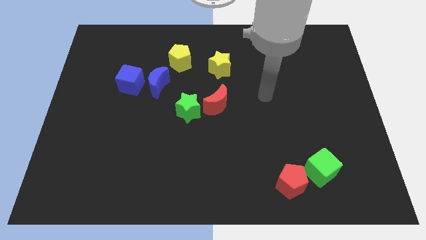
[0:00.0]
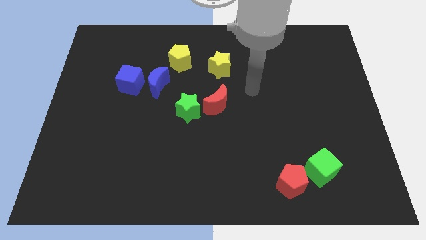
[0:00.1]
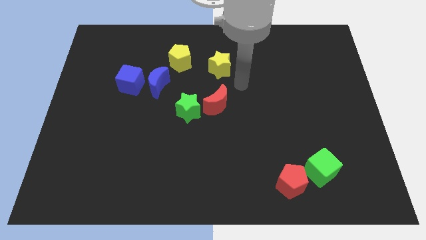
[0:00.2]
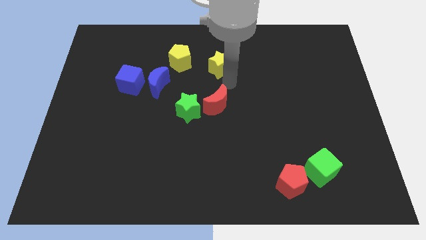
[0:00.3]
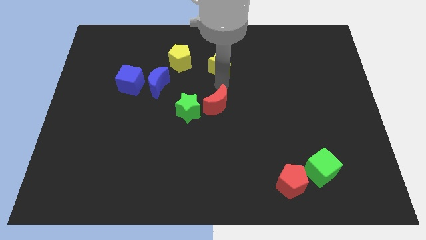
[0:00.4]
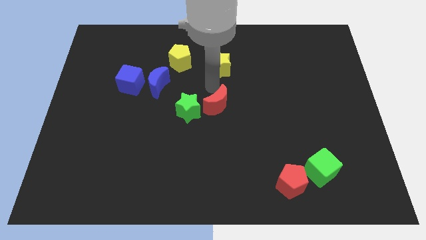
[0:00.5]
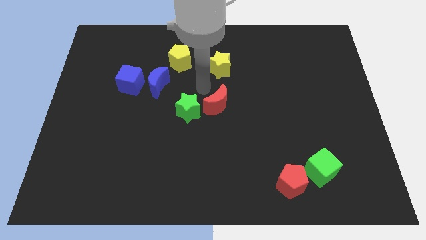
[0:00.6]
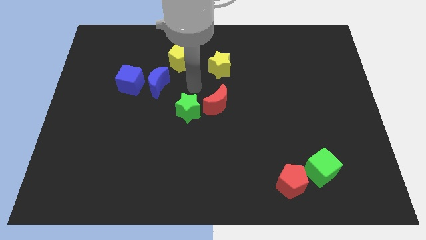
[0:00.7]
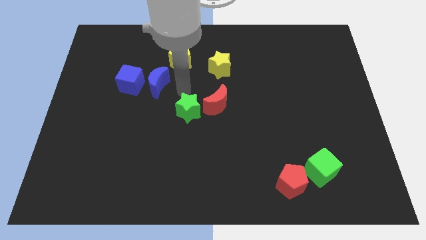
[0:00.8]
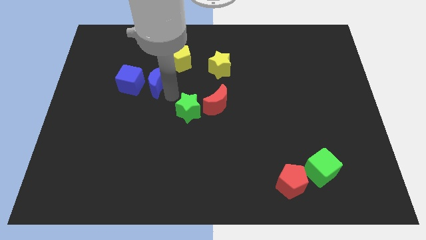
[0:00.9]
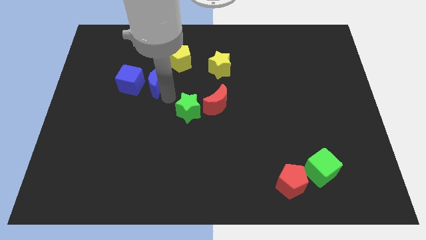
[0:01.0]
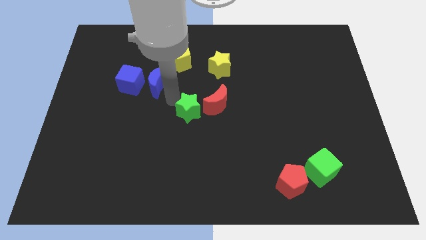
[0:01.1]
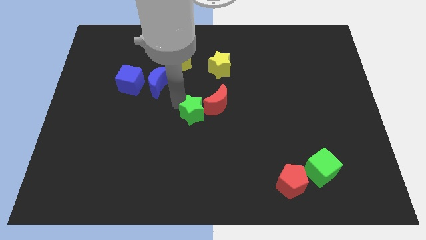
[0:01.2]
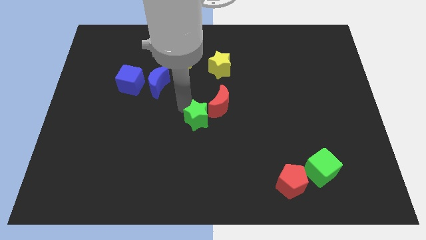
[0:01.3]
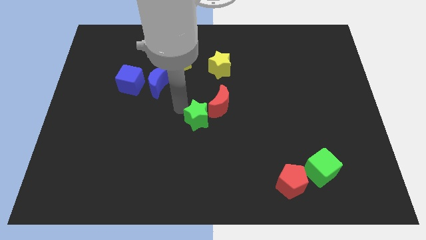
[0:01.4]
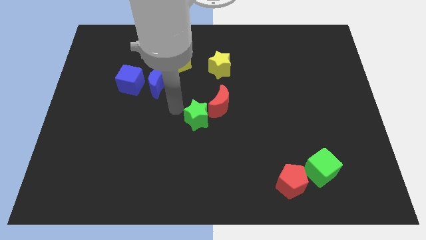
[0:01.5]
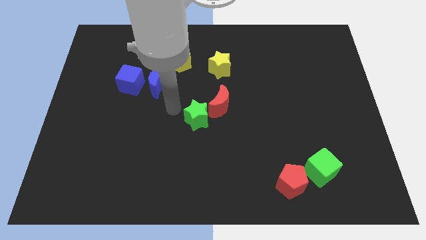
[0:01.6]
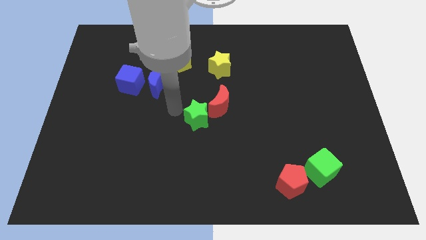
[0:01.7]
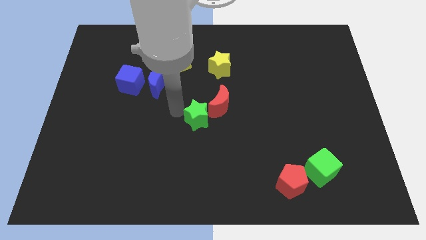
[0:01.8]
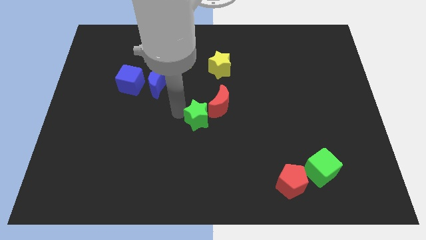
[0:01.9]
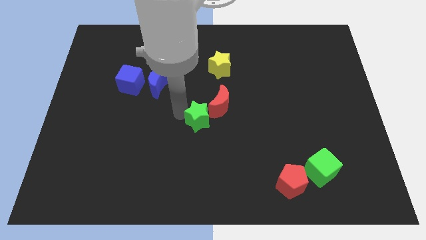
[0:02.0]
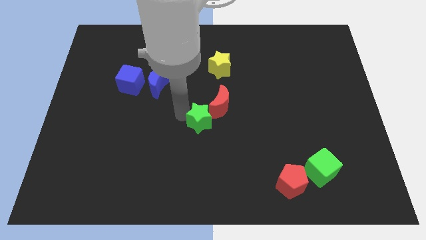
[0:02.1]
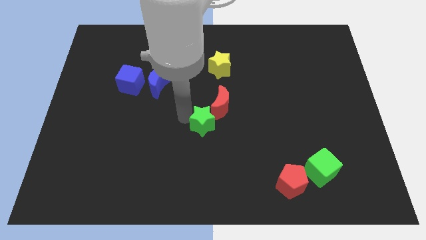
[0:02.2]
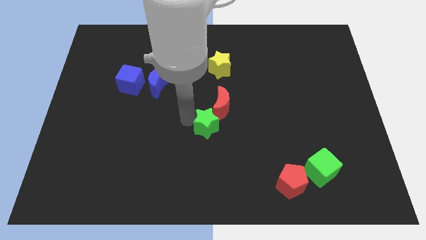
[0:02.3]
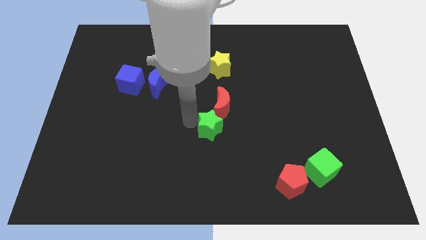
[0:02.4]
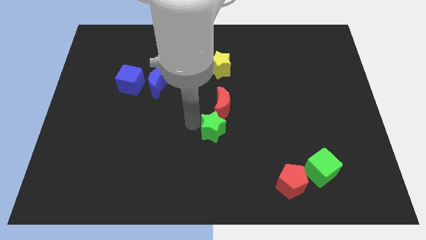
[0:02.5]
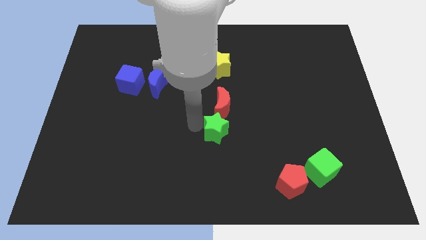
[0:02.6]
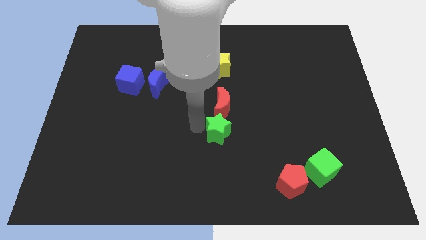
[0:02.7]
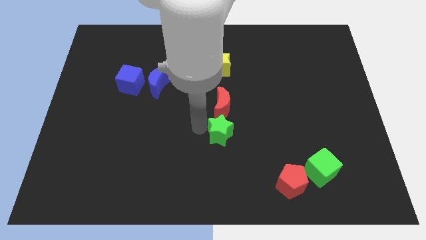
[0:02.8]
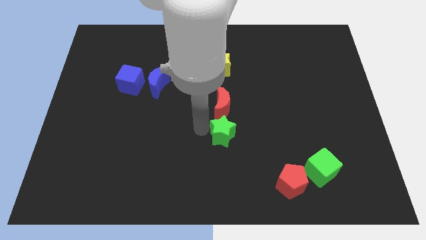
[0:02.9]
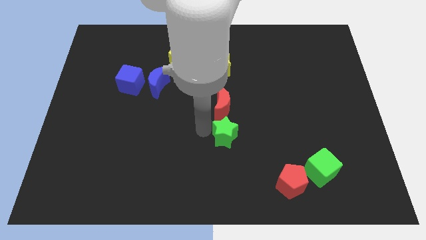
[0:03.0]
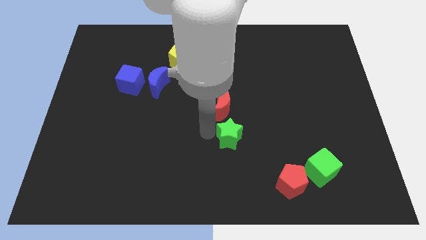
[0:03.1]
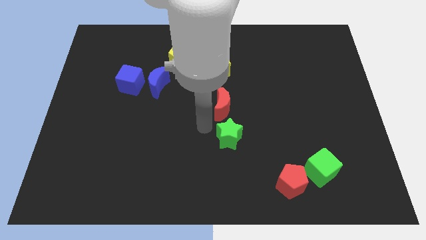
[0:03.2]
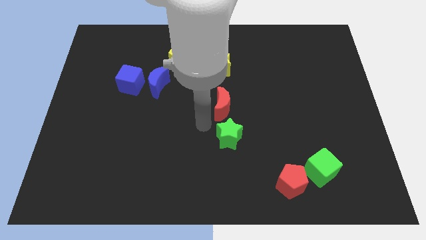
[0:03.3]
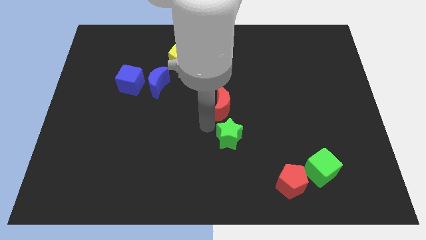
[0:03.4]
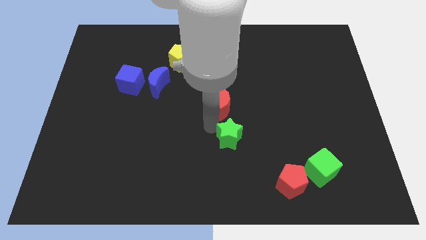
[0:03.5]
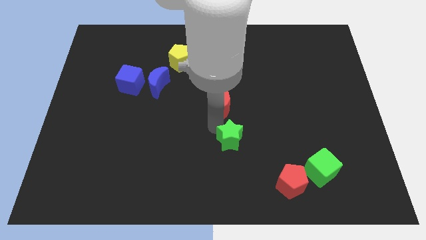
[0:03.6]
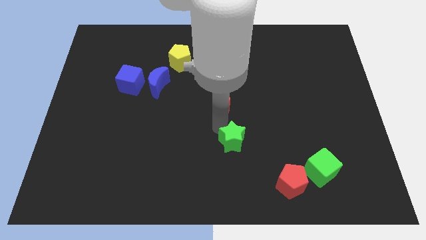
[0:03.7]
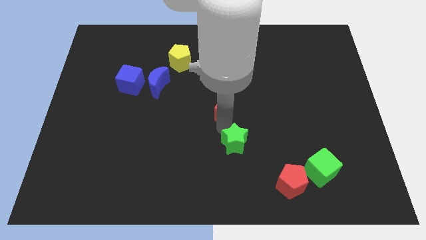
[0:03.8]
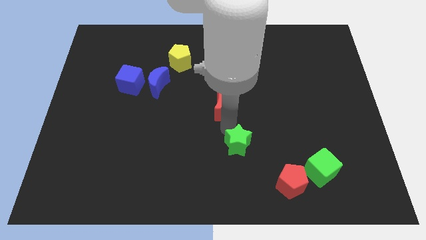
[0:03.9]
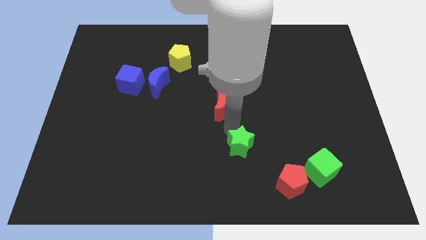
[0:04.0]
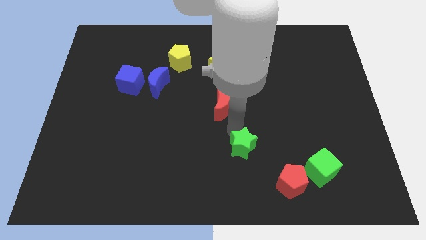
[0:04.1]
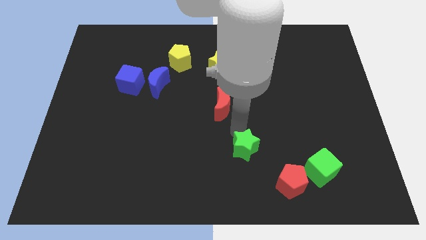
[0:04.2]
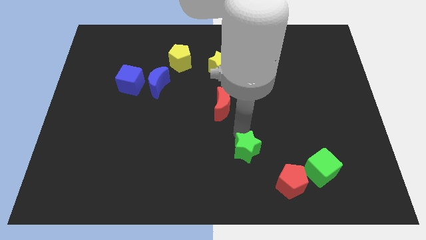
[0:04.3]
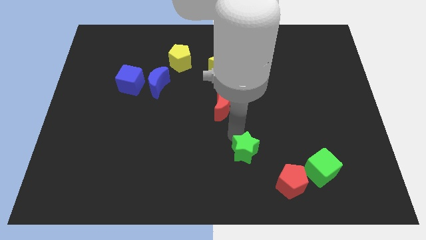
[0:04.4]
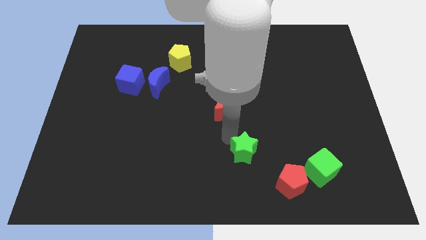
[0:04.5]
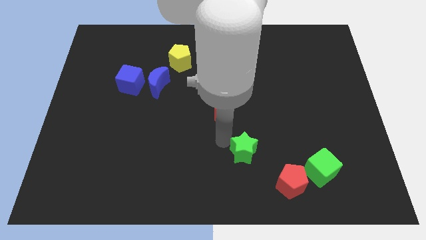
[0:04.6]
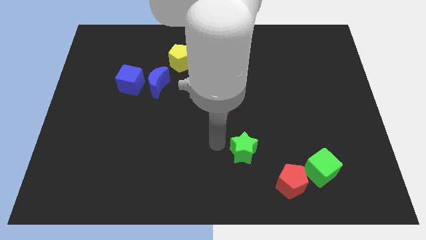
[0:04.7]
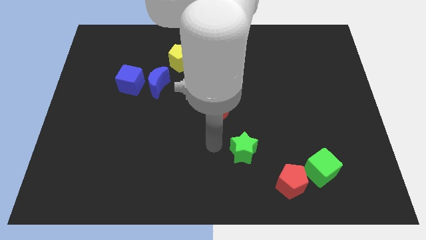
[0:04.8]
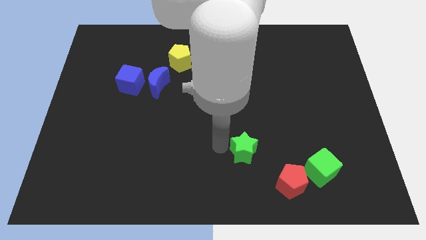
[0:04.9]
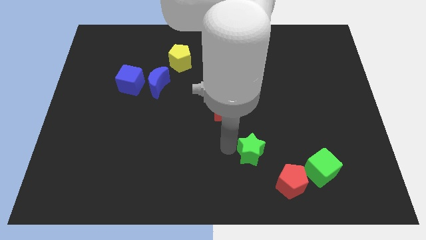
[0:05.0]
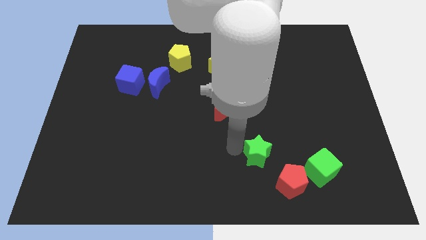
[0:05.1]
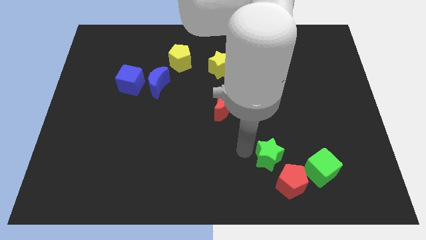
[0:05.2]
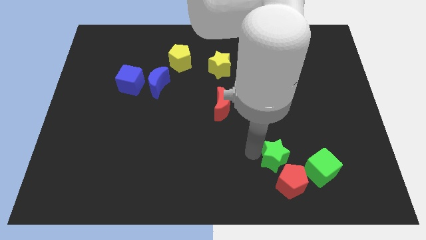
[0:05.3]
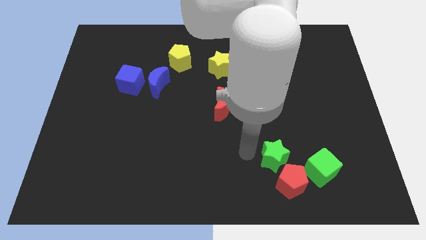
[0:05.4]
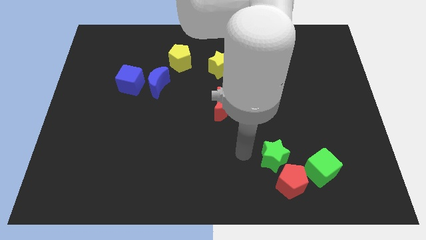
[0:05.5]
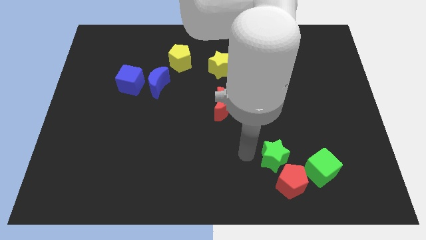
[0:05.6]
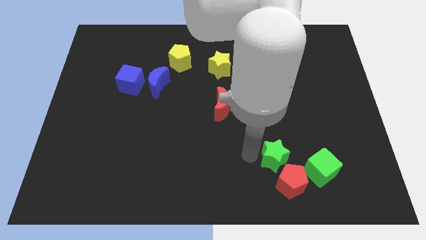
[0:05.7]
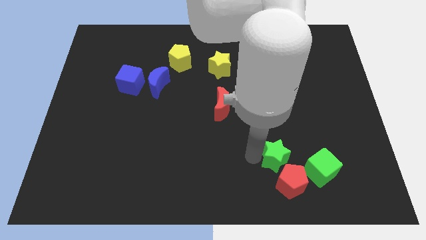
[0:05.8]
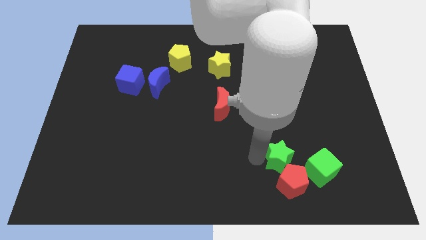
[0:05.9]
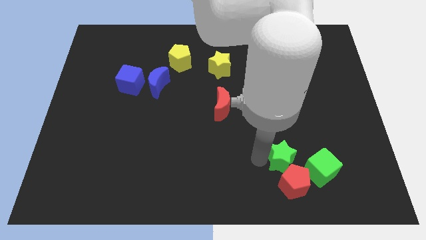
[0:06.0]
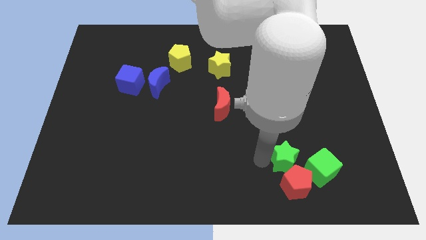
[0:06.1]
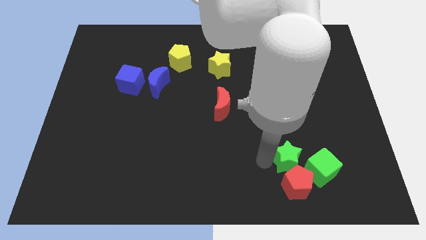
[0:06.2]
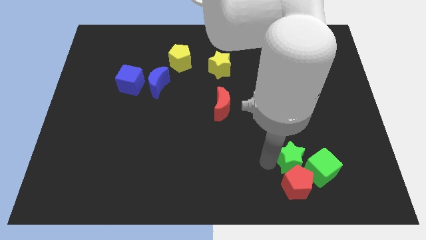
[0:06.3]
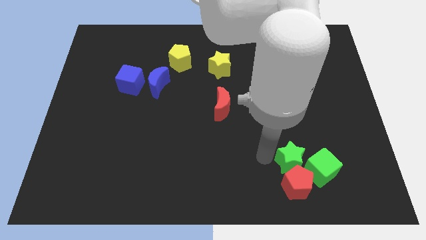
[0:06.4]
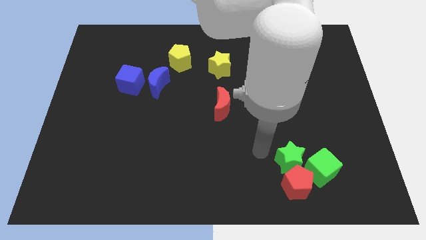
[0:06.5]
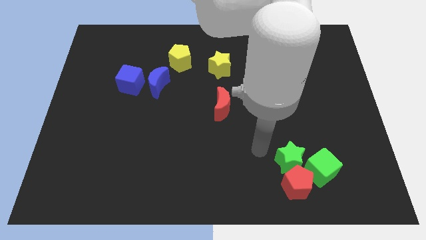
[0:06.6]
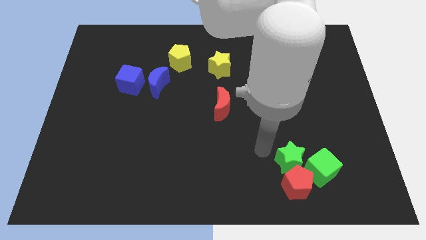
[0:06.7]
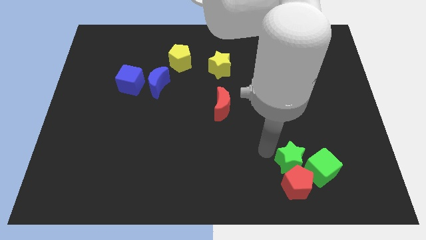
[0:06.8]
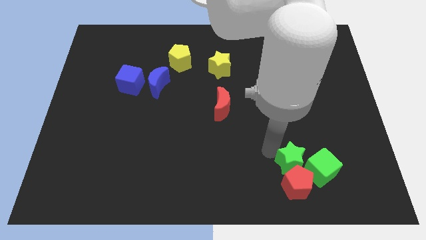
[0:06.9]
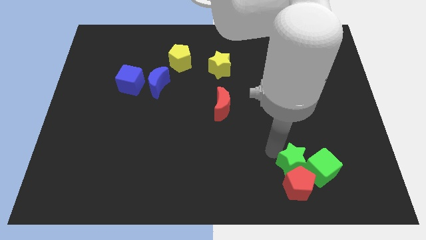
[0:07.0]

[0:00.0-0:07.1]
push the green star to the green cube
